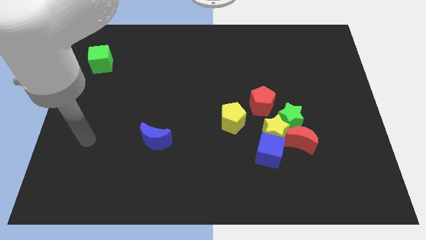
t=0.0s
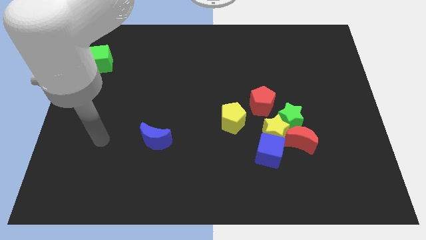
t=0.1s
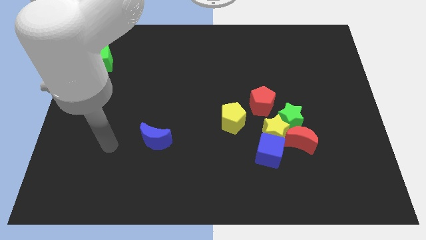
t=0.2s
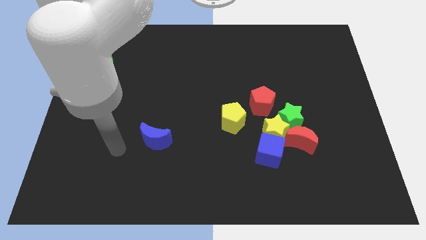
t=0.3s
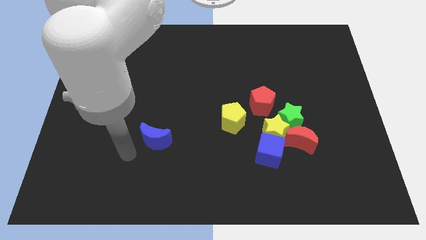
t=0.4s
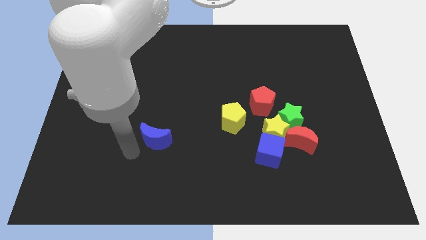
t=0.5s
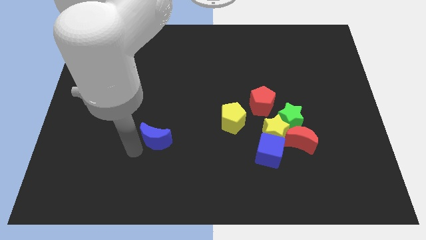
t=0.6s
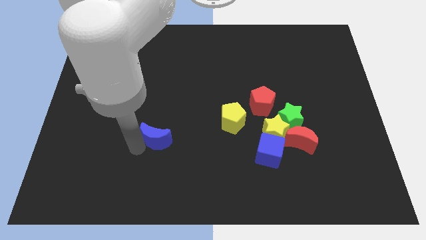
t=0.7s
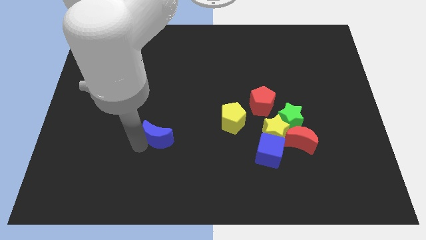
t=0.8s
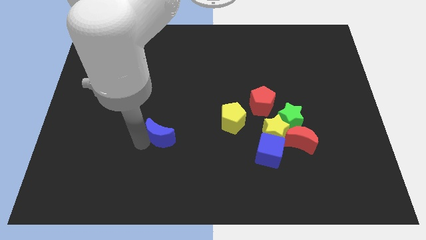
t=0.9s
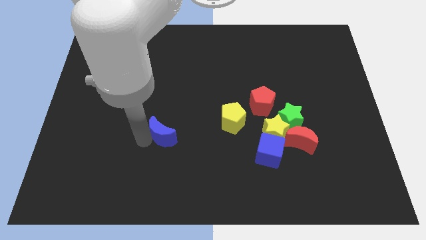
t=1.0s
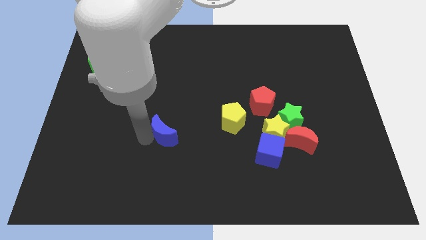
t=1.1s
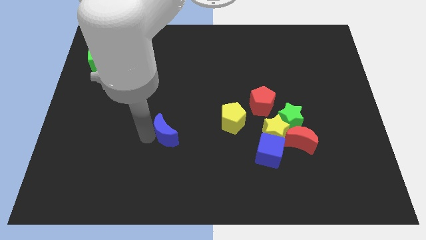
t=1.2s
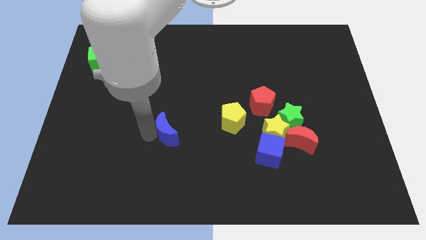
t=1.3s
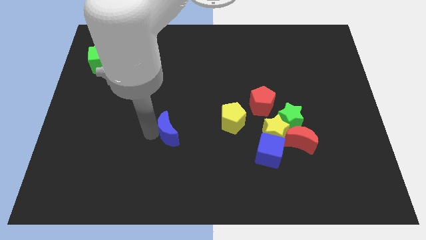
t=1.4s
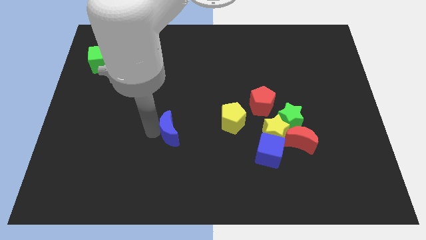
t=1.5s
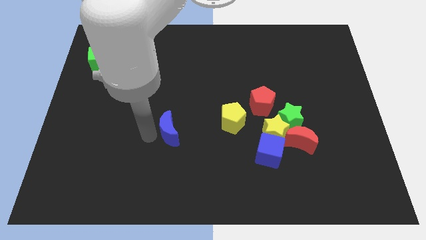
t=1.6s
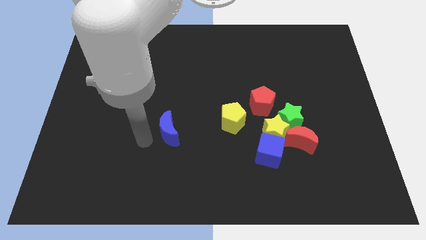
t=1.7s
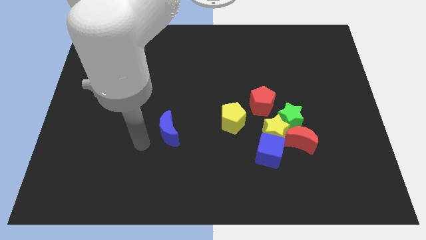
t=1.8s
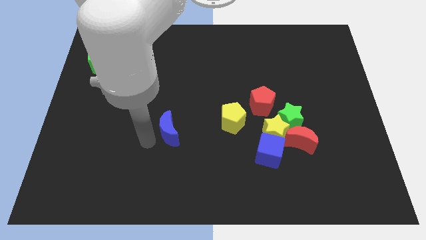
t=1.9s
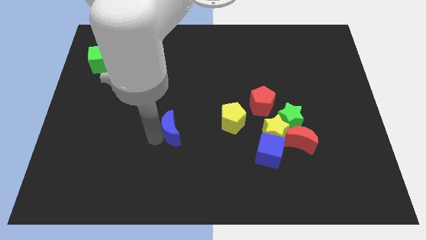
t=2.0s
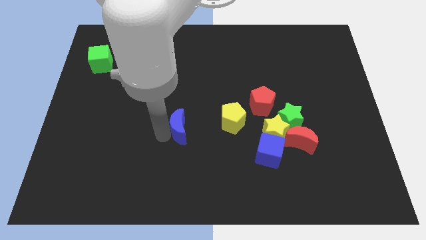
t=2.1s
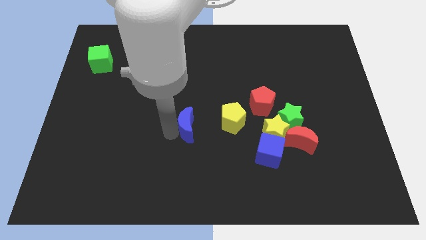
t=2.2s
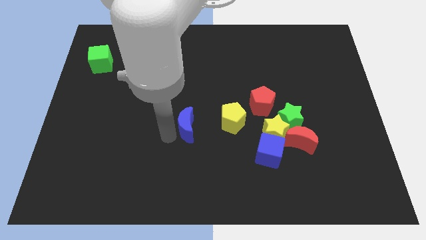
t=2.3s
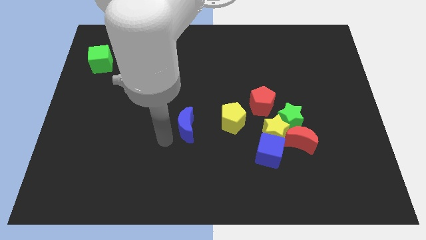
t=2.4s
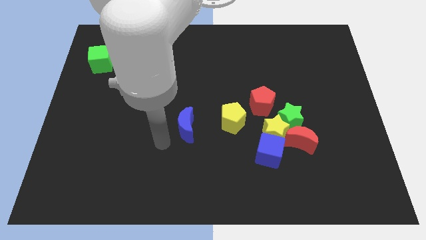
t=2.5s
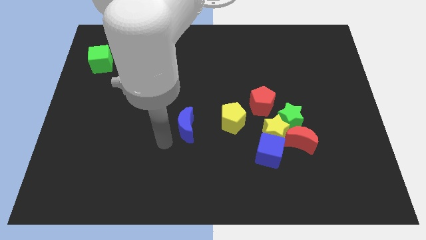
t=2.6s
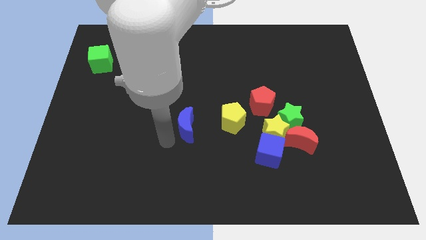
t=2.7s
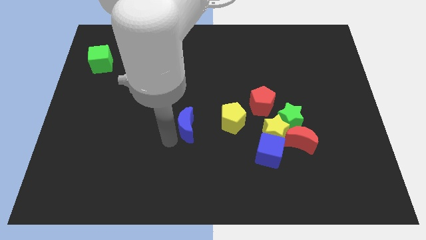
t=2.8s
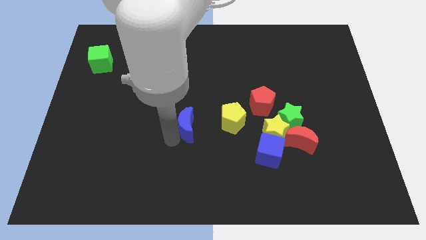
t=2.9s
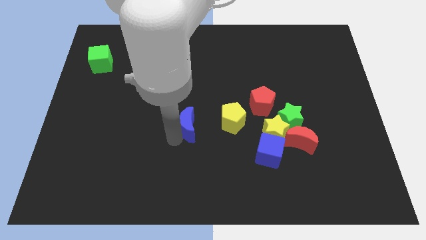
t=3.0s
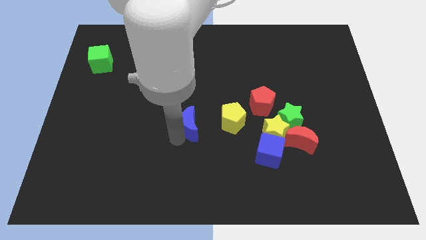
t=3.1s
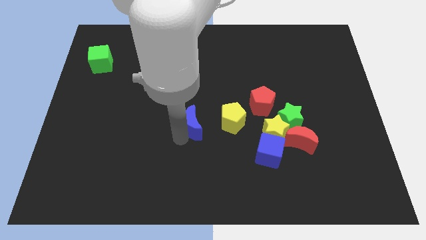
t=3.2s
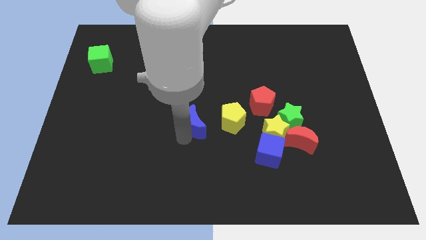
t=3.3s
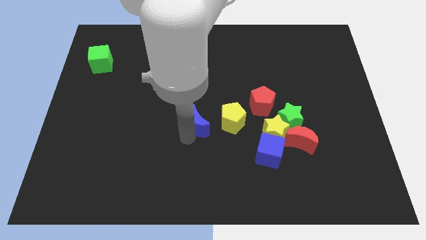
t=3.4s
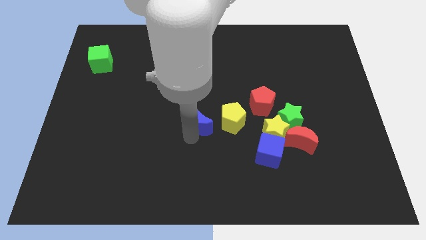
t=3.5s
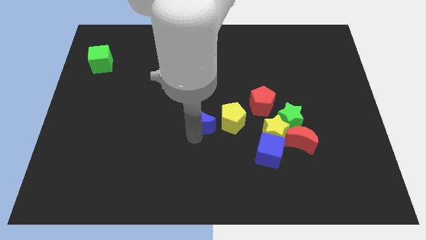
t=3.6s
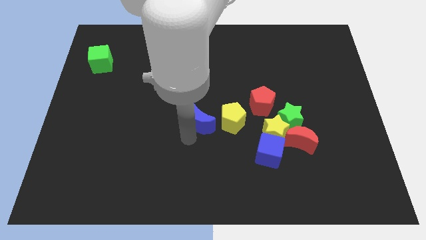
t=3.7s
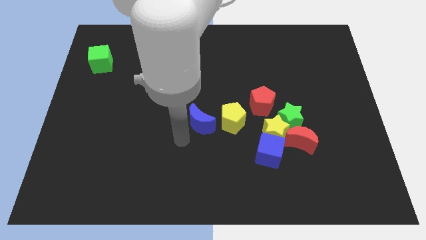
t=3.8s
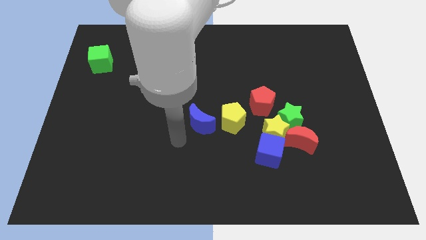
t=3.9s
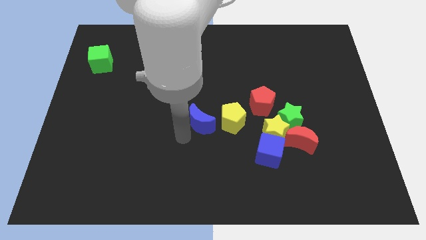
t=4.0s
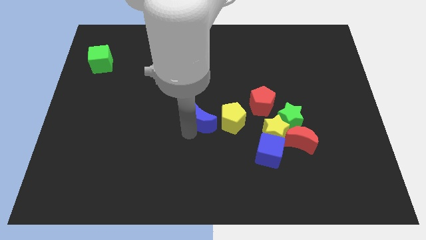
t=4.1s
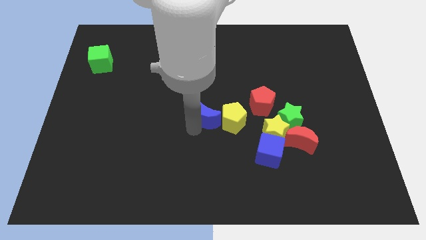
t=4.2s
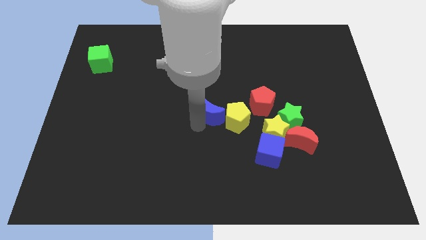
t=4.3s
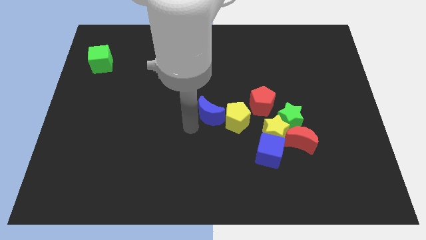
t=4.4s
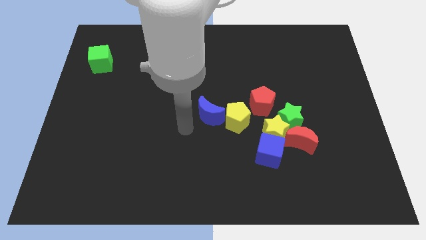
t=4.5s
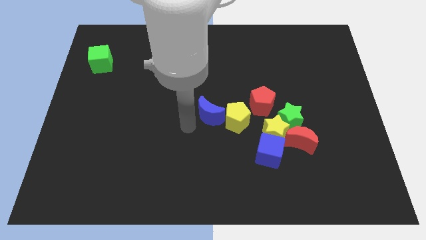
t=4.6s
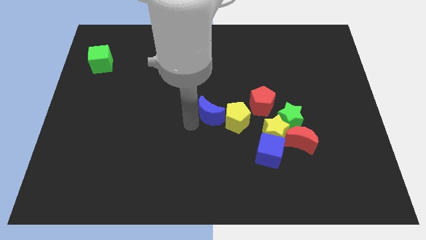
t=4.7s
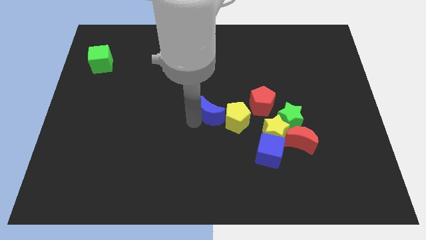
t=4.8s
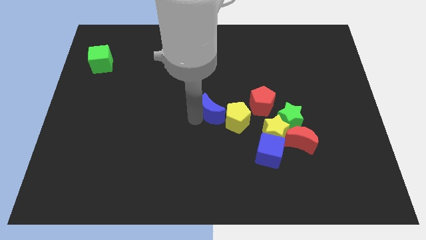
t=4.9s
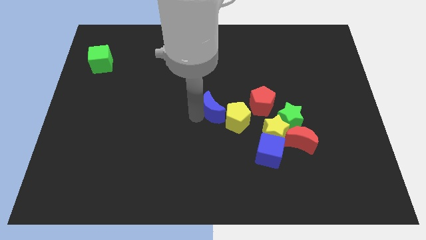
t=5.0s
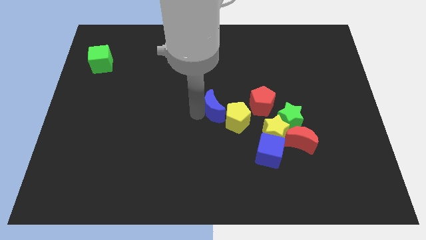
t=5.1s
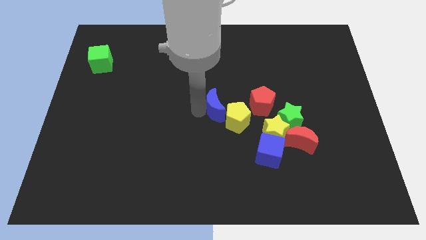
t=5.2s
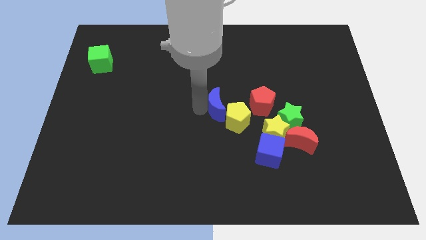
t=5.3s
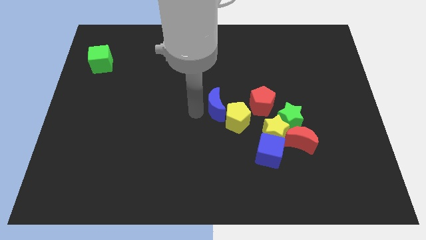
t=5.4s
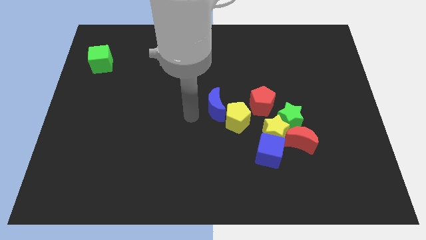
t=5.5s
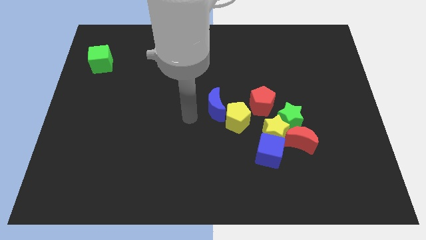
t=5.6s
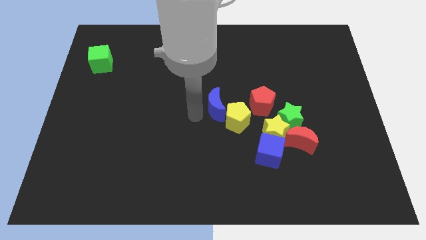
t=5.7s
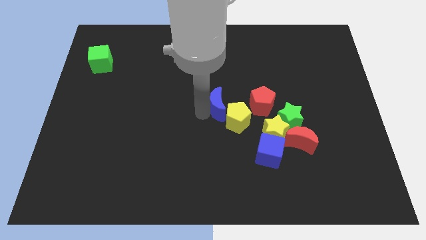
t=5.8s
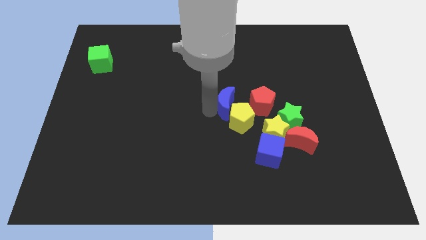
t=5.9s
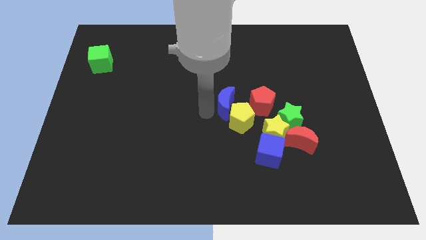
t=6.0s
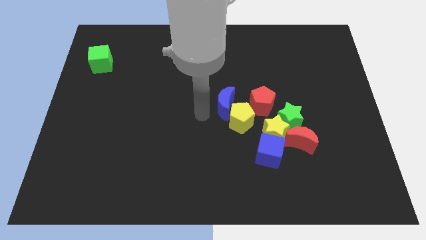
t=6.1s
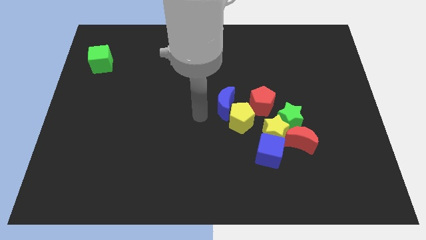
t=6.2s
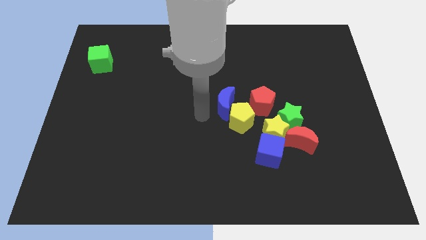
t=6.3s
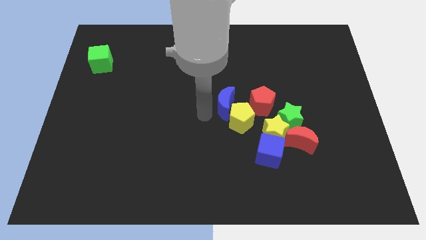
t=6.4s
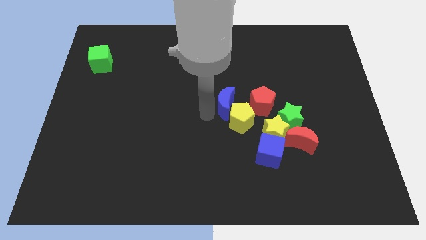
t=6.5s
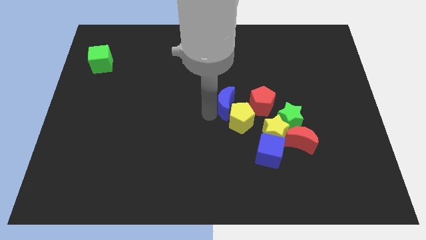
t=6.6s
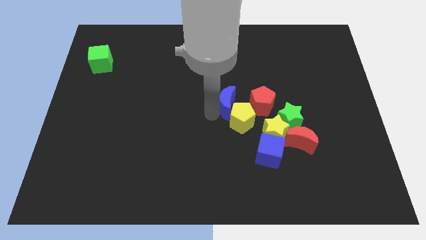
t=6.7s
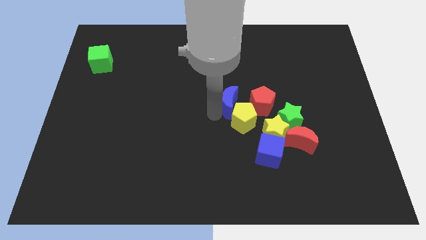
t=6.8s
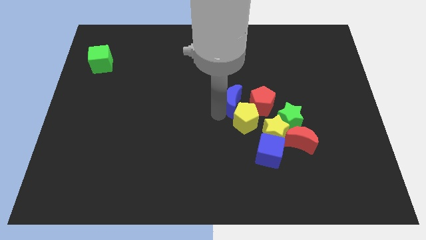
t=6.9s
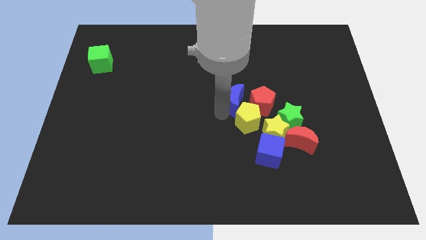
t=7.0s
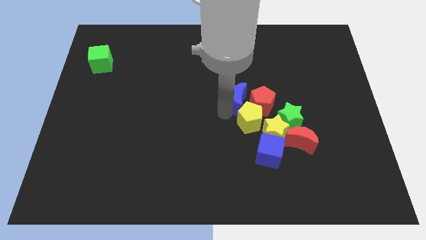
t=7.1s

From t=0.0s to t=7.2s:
slide the blue moon close to the red pentagon

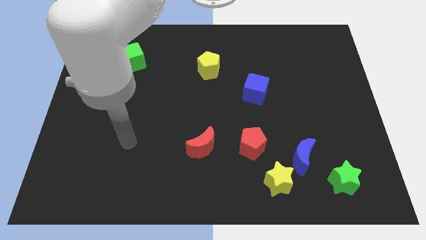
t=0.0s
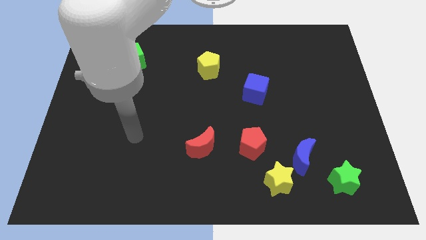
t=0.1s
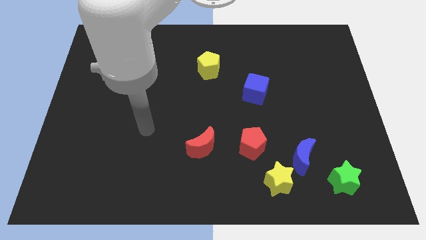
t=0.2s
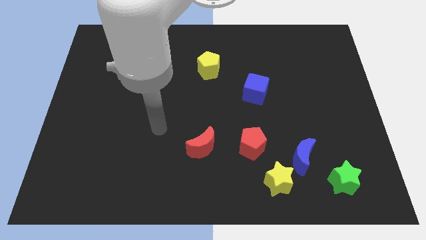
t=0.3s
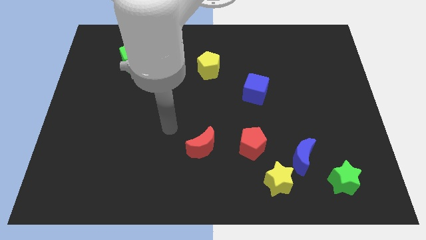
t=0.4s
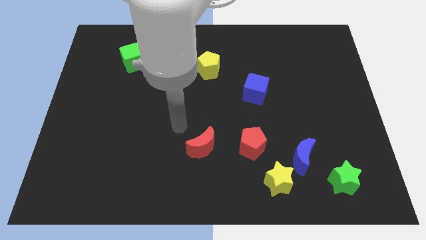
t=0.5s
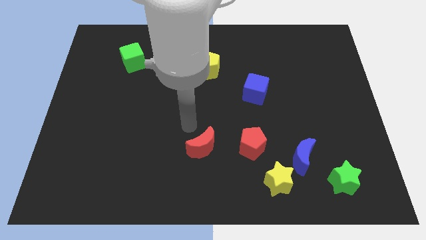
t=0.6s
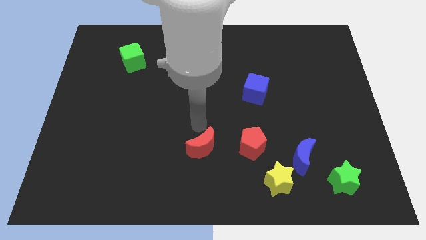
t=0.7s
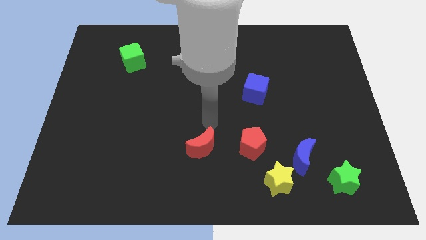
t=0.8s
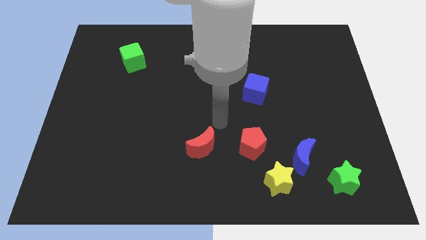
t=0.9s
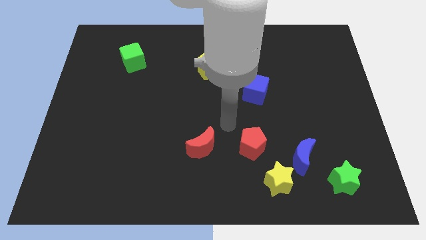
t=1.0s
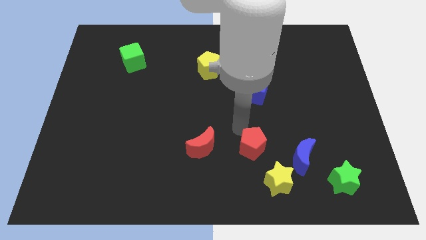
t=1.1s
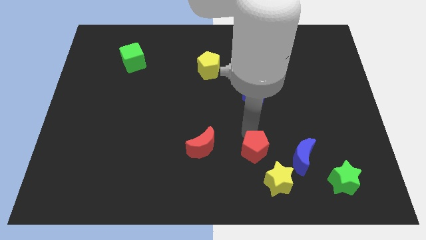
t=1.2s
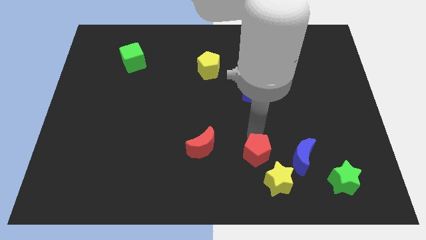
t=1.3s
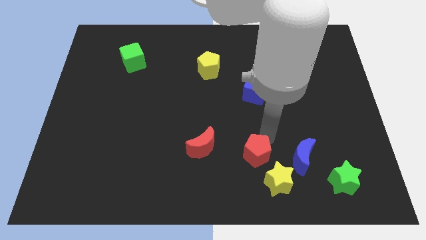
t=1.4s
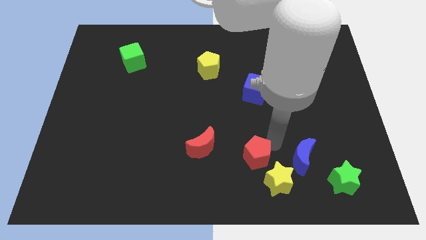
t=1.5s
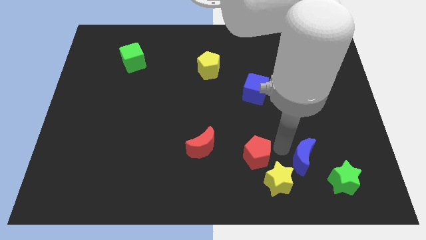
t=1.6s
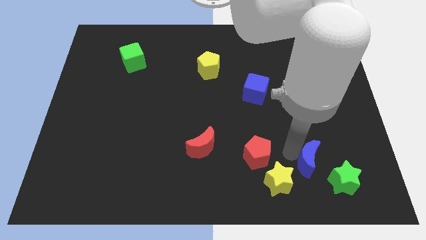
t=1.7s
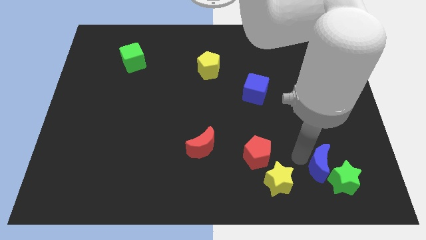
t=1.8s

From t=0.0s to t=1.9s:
push the blue moon towards the green star
